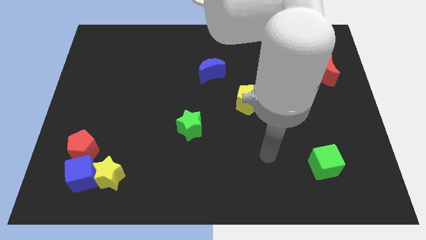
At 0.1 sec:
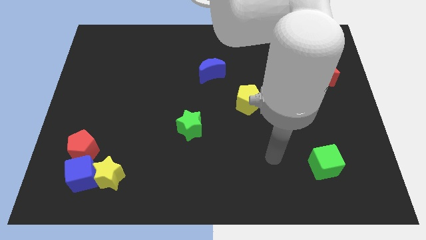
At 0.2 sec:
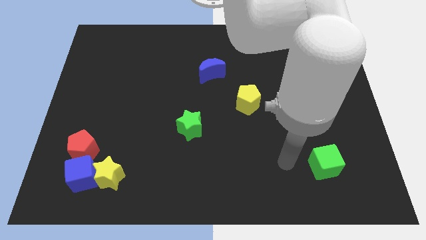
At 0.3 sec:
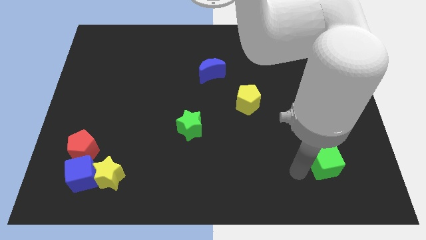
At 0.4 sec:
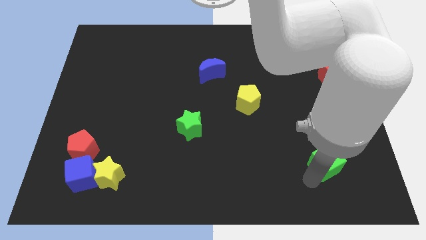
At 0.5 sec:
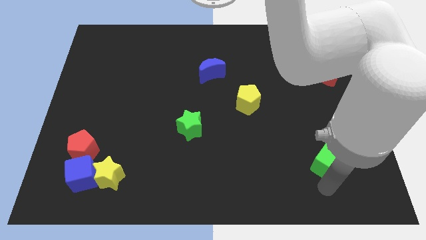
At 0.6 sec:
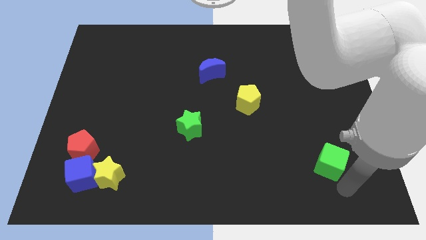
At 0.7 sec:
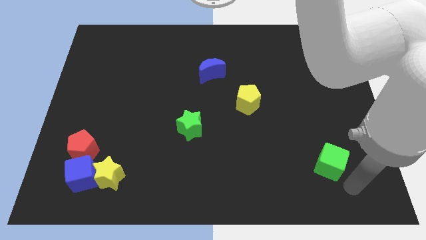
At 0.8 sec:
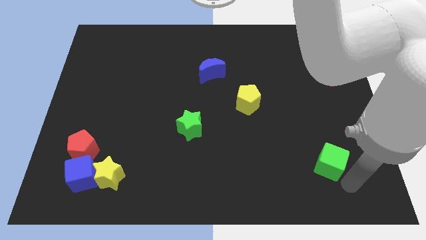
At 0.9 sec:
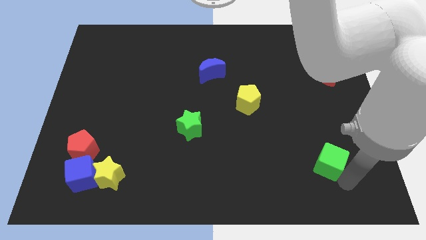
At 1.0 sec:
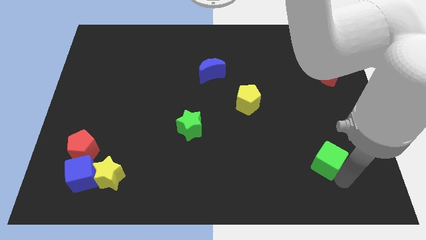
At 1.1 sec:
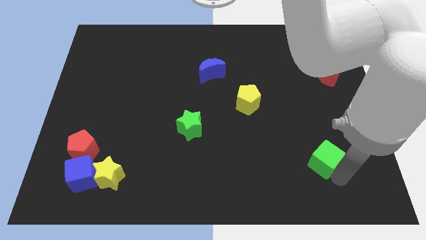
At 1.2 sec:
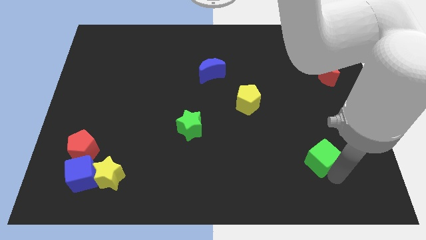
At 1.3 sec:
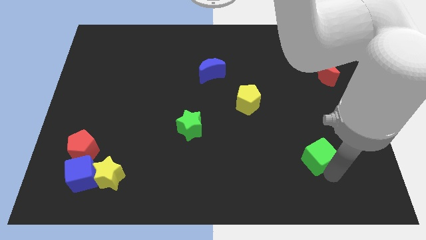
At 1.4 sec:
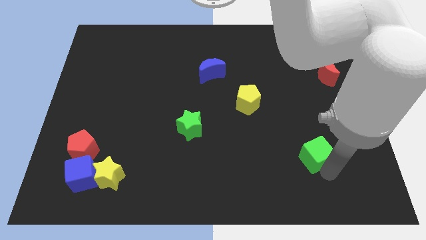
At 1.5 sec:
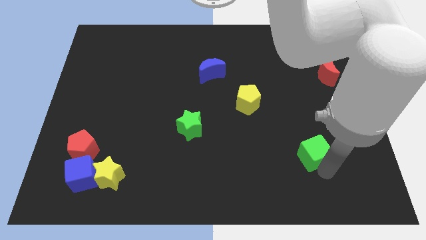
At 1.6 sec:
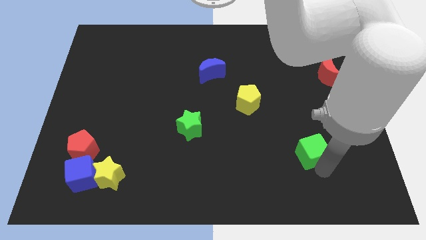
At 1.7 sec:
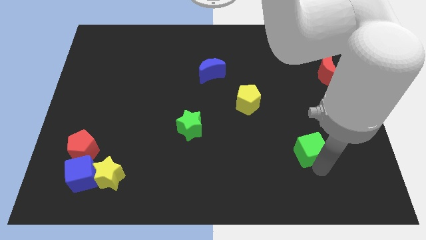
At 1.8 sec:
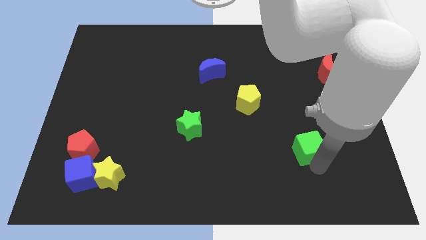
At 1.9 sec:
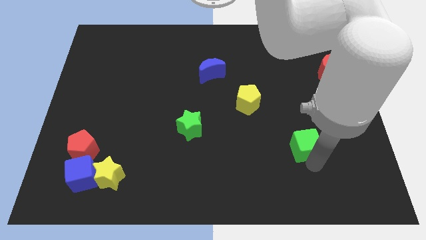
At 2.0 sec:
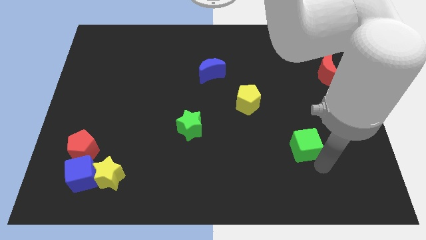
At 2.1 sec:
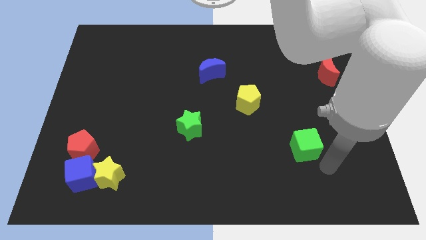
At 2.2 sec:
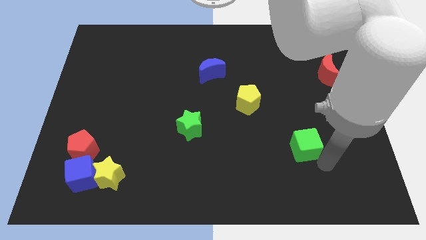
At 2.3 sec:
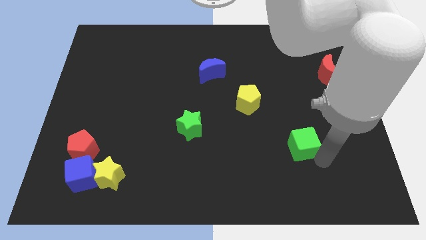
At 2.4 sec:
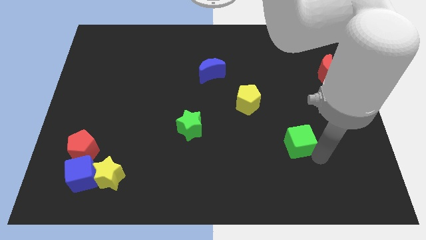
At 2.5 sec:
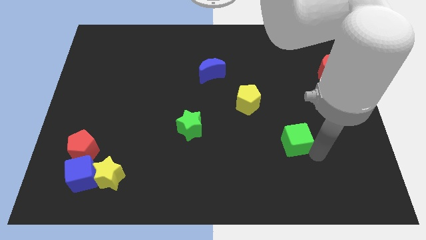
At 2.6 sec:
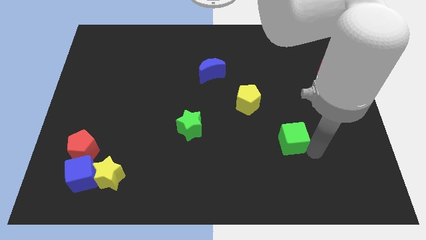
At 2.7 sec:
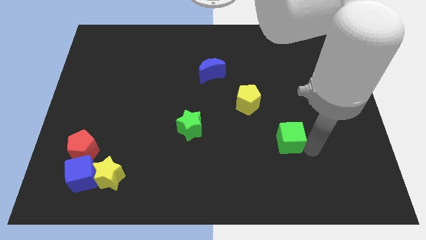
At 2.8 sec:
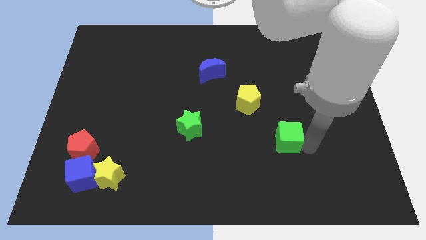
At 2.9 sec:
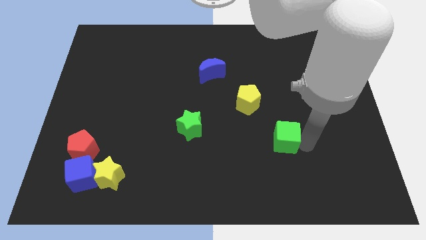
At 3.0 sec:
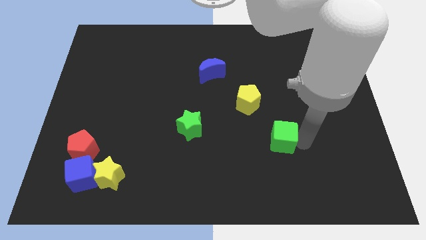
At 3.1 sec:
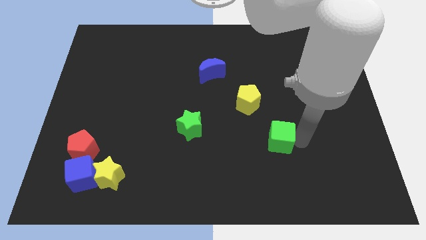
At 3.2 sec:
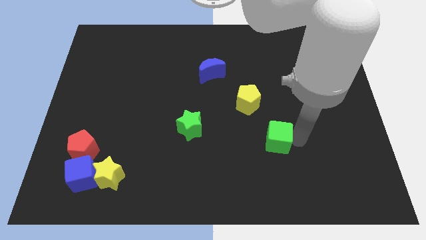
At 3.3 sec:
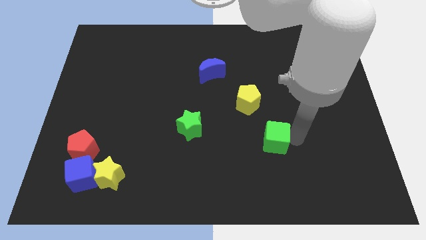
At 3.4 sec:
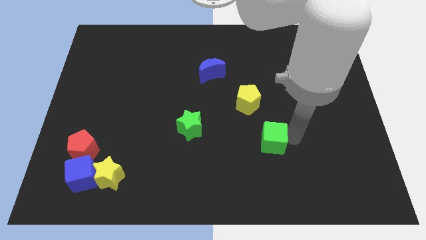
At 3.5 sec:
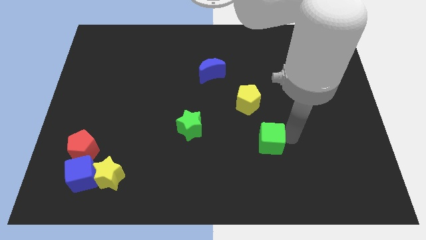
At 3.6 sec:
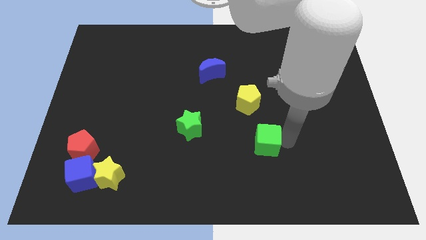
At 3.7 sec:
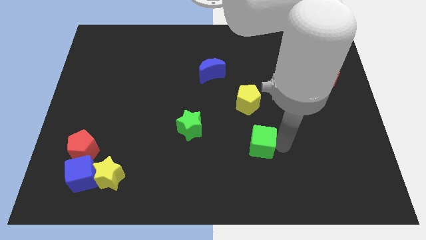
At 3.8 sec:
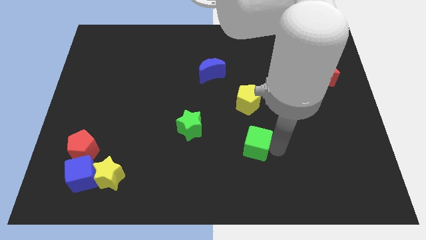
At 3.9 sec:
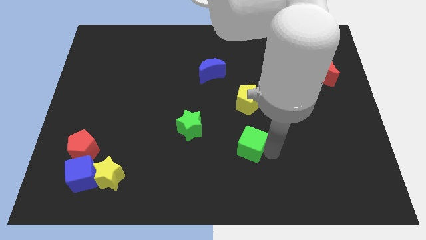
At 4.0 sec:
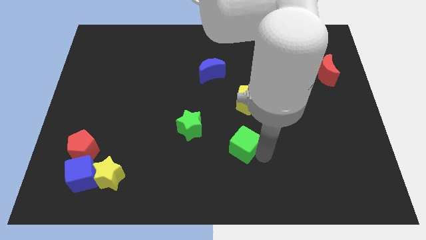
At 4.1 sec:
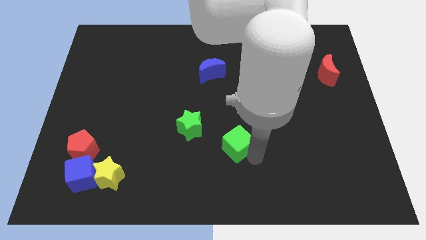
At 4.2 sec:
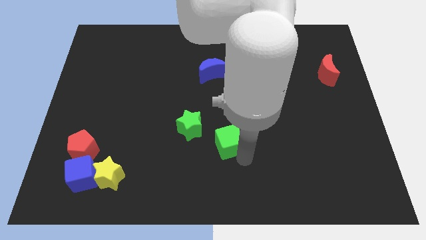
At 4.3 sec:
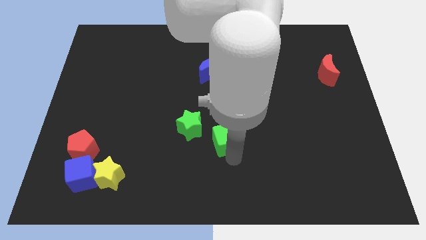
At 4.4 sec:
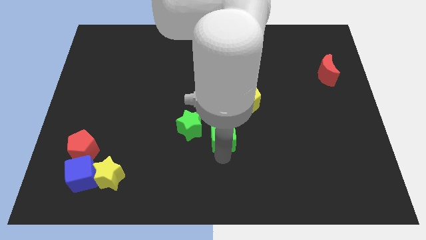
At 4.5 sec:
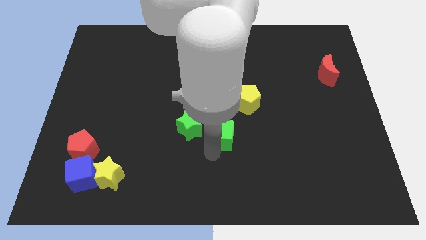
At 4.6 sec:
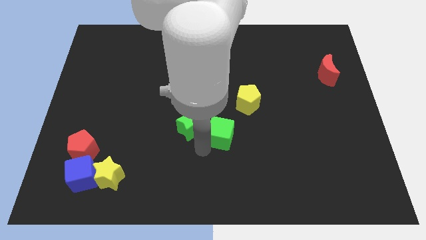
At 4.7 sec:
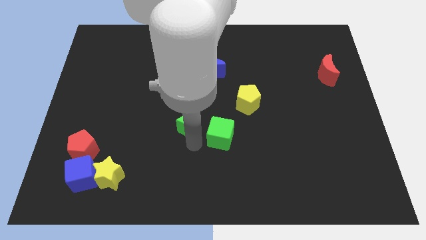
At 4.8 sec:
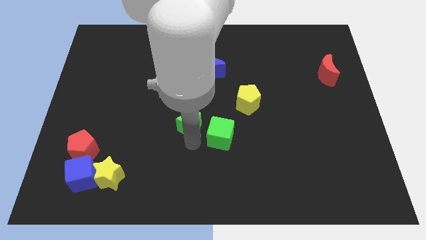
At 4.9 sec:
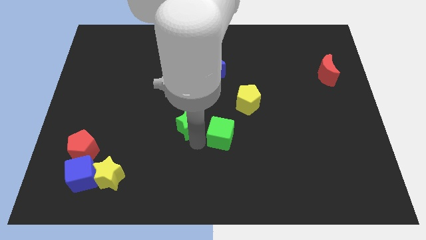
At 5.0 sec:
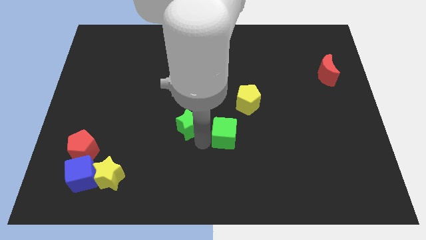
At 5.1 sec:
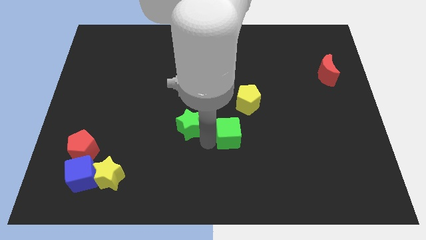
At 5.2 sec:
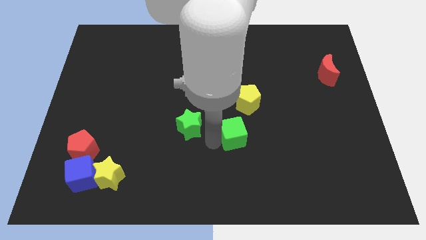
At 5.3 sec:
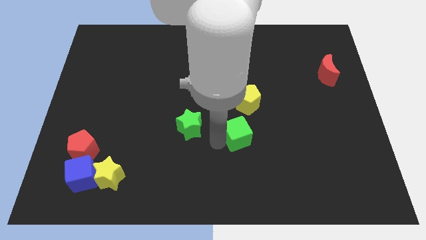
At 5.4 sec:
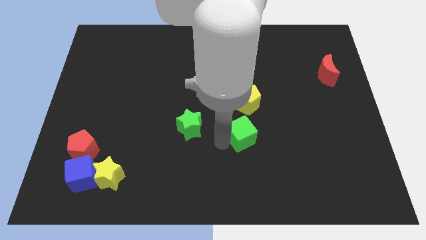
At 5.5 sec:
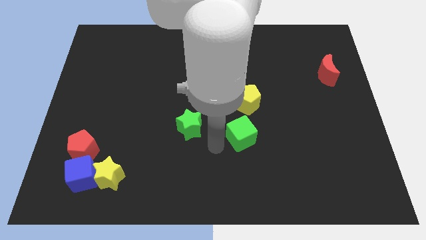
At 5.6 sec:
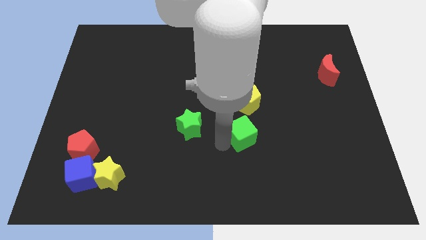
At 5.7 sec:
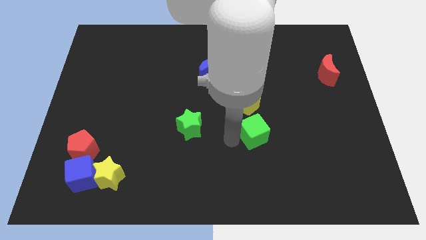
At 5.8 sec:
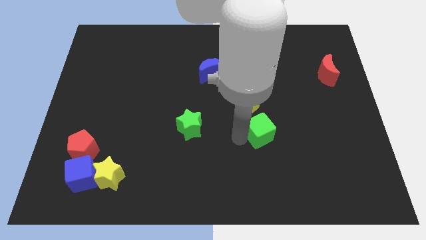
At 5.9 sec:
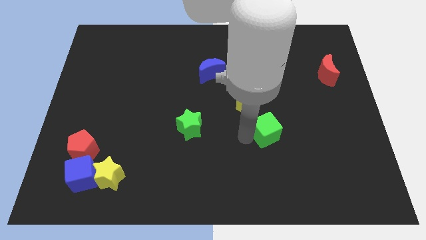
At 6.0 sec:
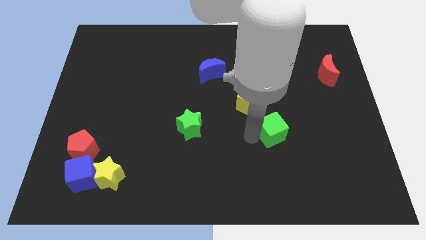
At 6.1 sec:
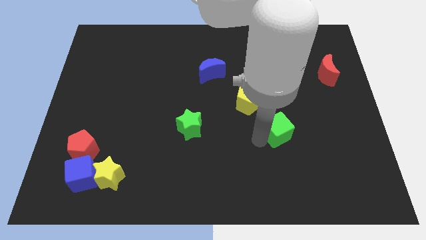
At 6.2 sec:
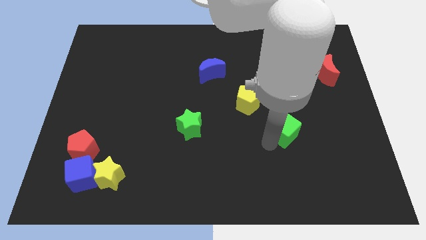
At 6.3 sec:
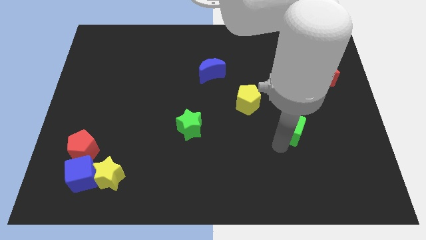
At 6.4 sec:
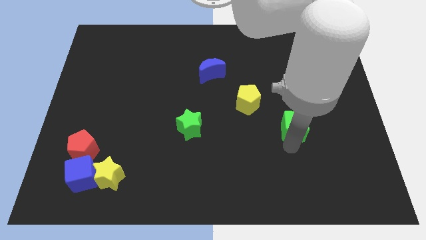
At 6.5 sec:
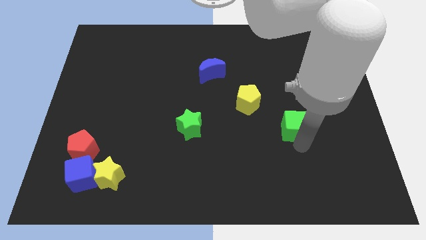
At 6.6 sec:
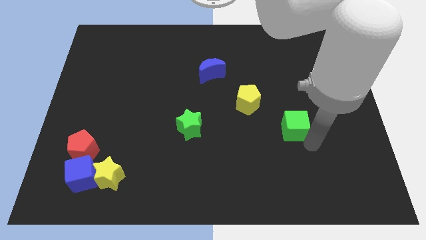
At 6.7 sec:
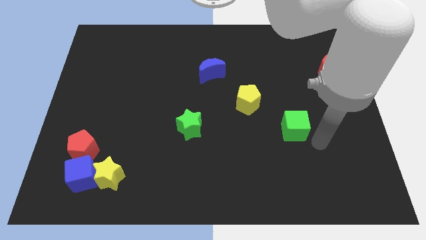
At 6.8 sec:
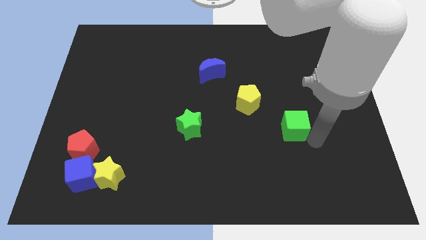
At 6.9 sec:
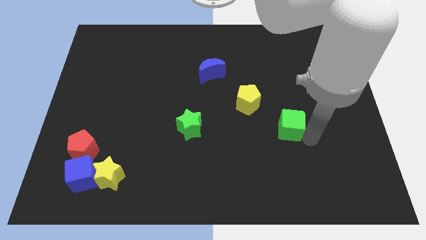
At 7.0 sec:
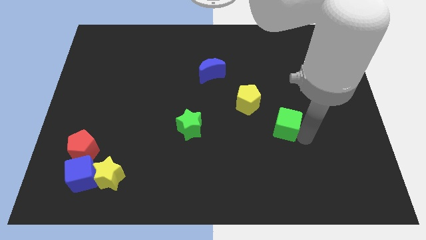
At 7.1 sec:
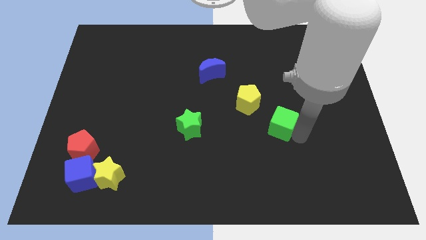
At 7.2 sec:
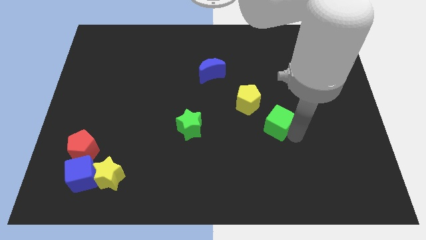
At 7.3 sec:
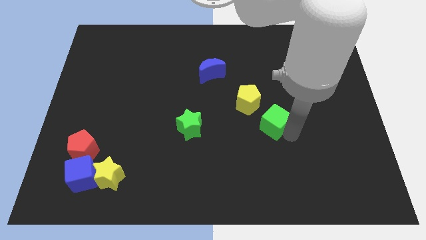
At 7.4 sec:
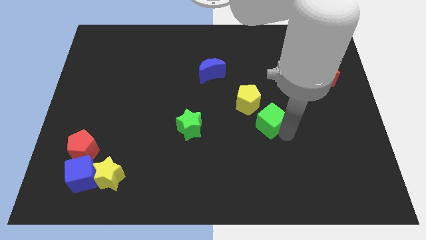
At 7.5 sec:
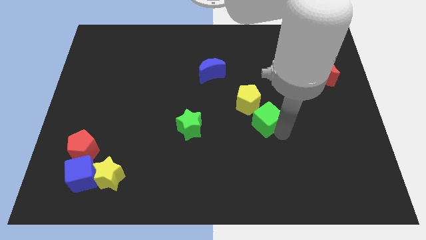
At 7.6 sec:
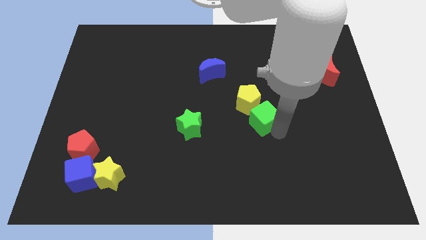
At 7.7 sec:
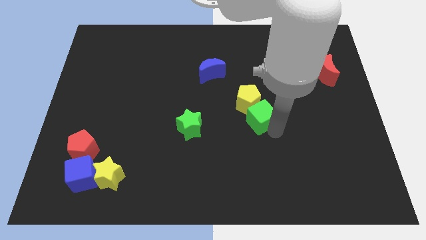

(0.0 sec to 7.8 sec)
push the green cube next to the yellow pentagon

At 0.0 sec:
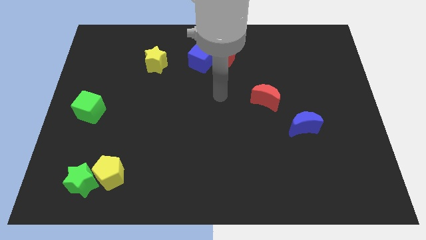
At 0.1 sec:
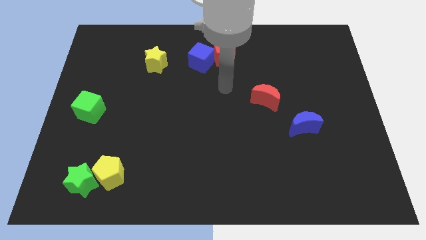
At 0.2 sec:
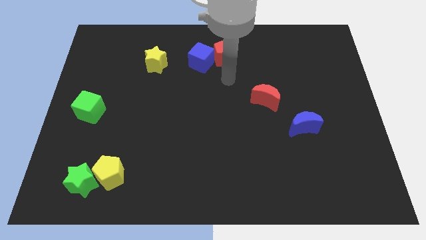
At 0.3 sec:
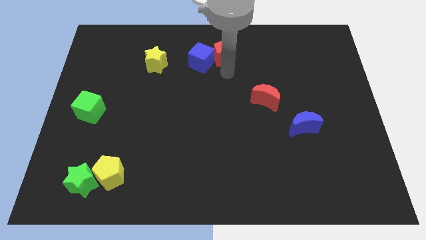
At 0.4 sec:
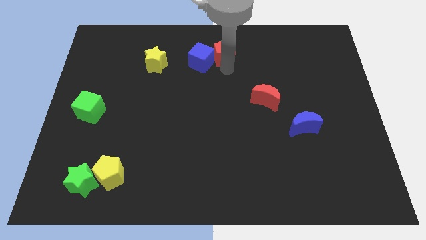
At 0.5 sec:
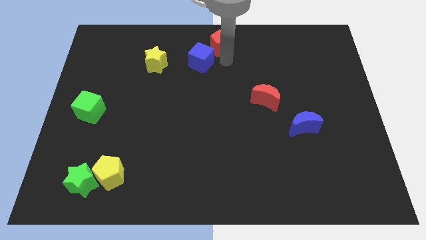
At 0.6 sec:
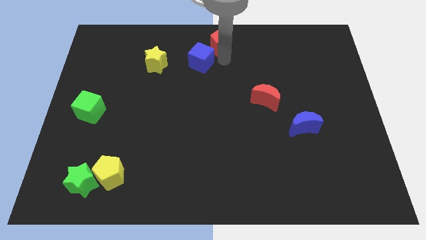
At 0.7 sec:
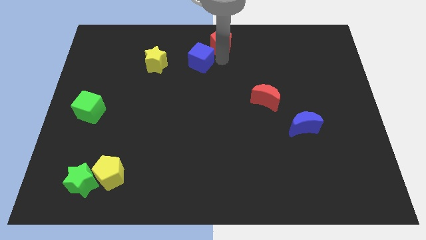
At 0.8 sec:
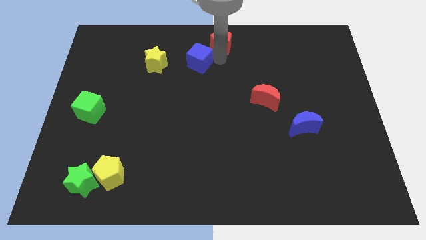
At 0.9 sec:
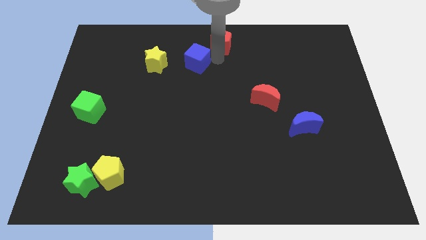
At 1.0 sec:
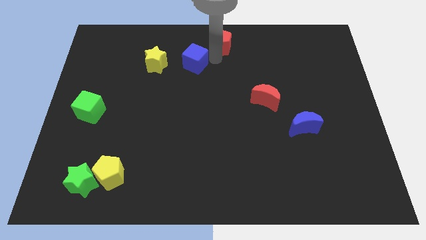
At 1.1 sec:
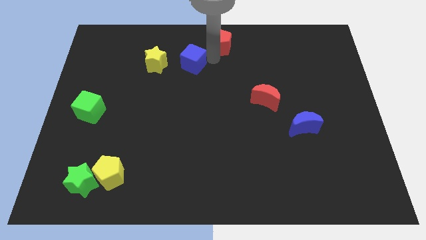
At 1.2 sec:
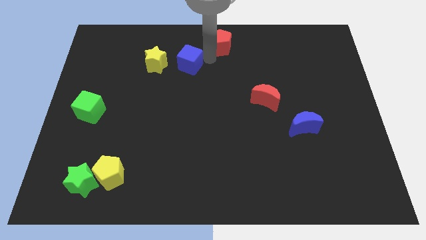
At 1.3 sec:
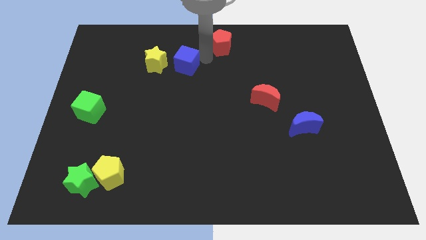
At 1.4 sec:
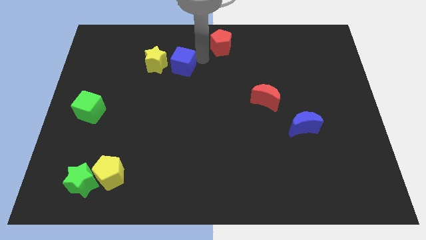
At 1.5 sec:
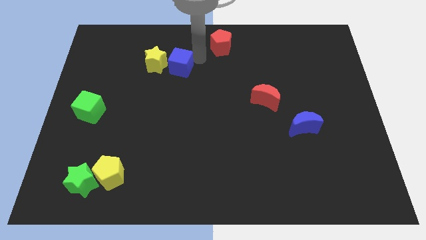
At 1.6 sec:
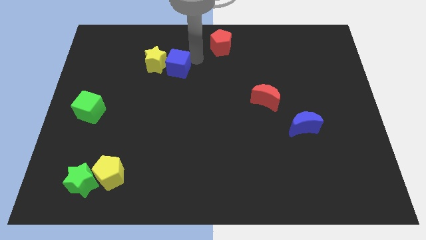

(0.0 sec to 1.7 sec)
move the blue cube next to the yellow star
